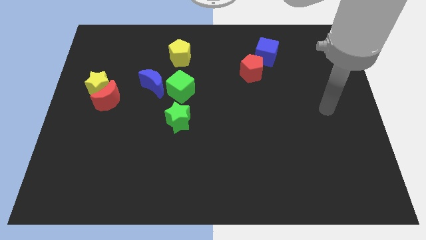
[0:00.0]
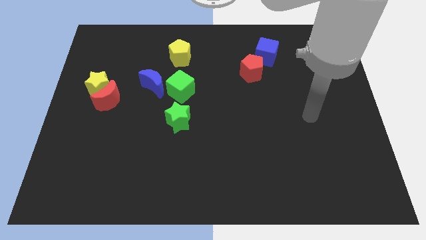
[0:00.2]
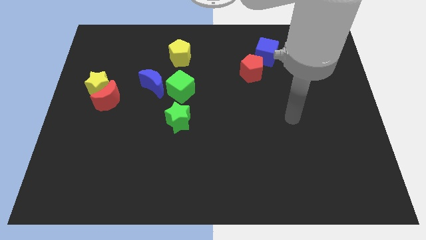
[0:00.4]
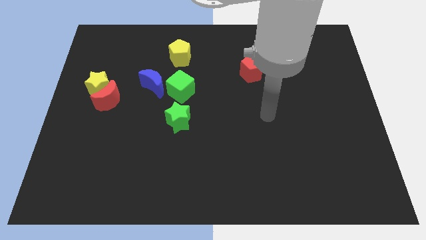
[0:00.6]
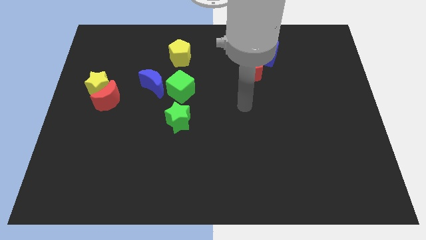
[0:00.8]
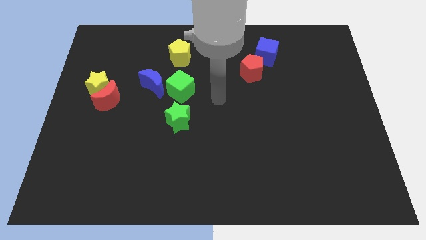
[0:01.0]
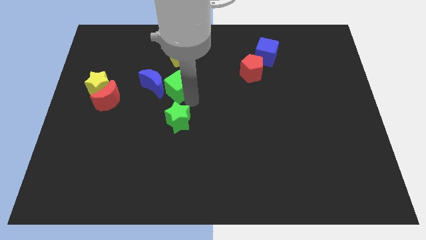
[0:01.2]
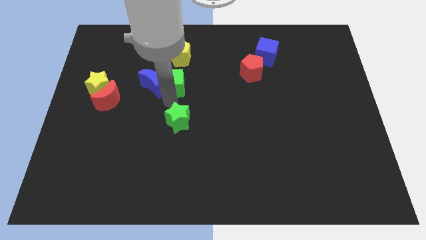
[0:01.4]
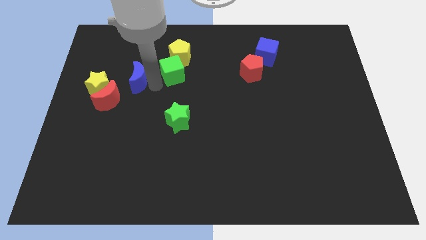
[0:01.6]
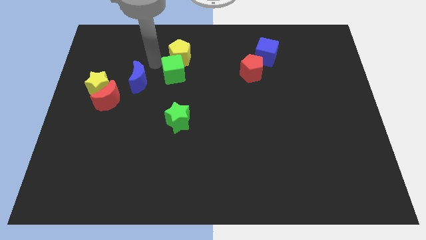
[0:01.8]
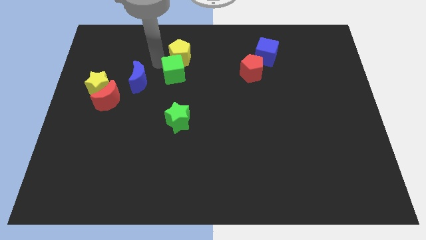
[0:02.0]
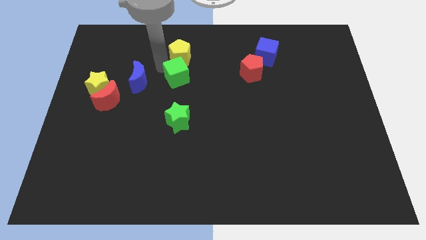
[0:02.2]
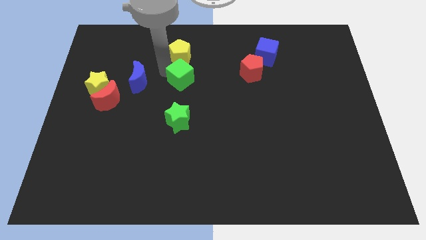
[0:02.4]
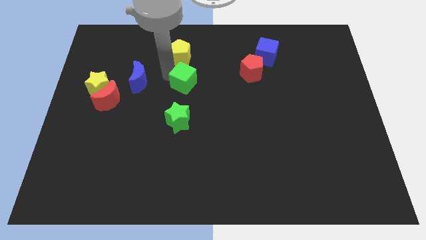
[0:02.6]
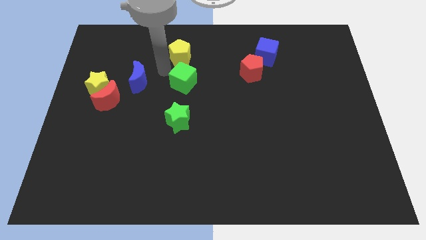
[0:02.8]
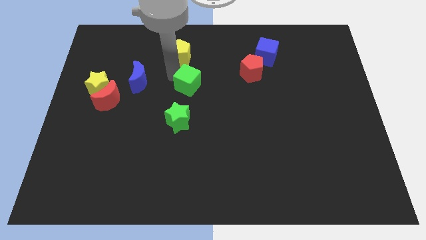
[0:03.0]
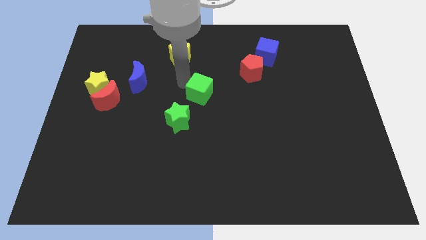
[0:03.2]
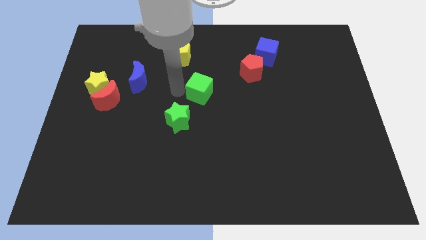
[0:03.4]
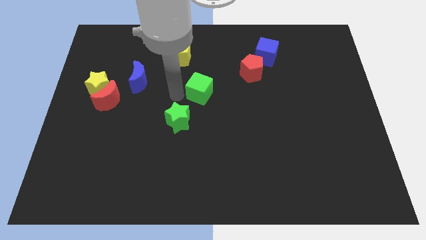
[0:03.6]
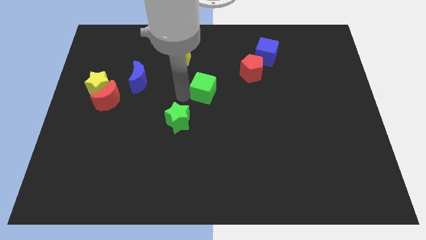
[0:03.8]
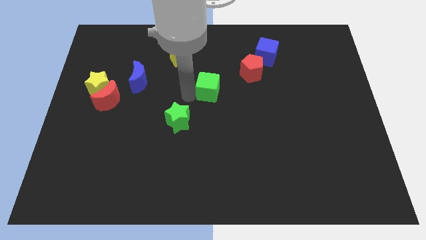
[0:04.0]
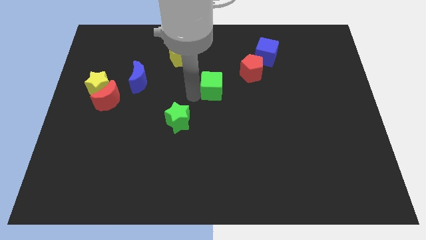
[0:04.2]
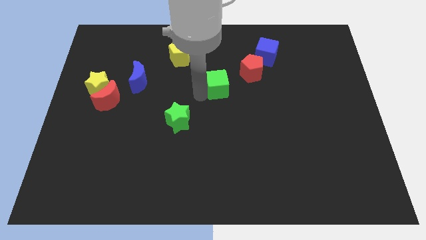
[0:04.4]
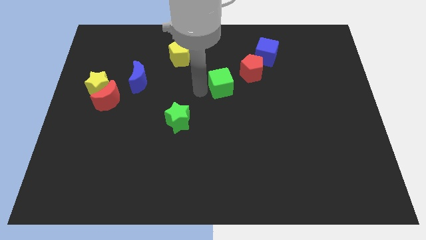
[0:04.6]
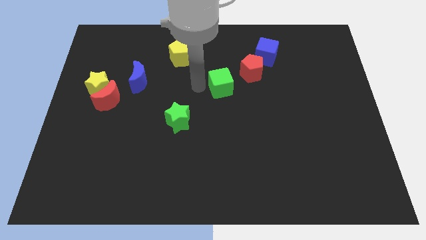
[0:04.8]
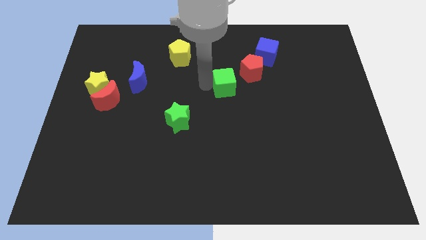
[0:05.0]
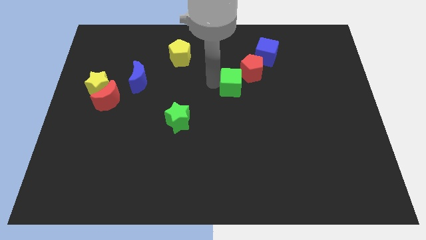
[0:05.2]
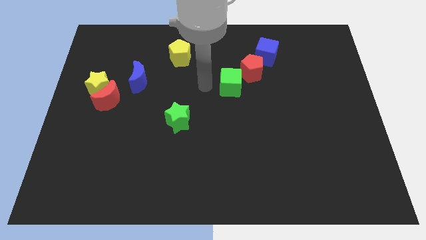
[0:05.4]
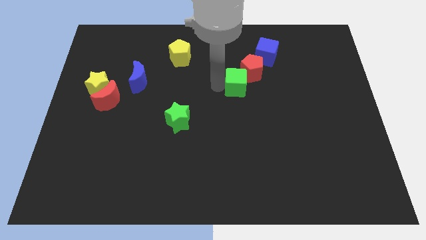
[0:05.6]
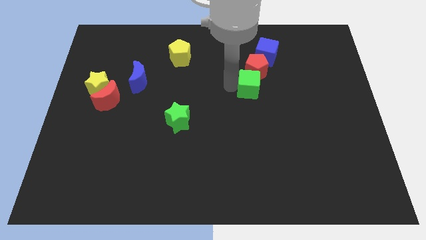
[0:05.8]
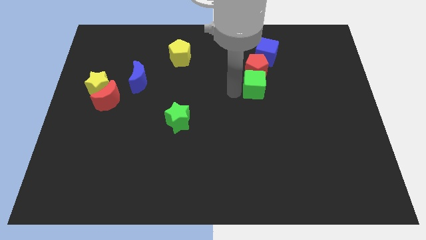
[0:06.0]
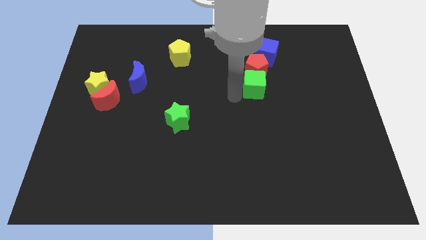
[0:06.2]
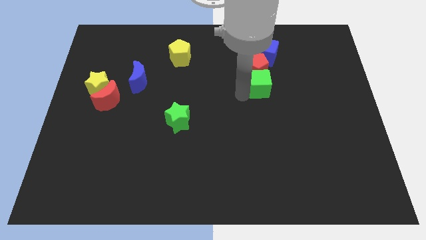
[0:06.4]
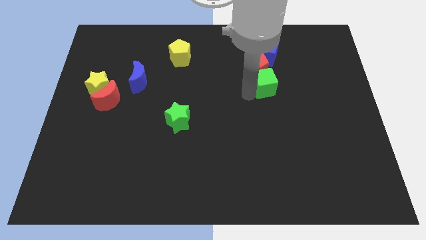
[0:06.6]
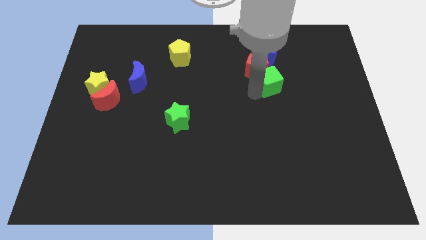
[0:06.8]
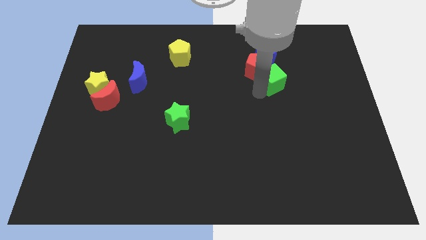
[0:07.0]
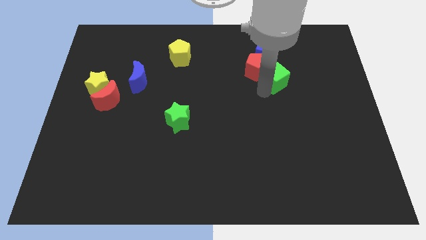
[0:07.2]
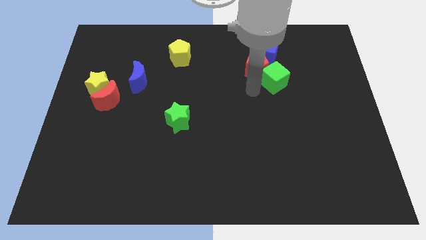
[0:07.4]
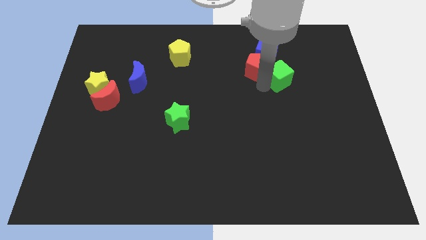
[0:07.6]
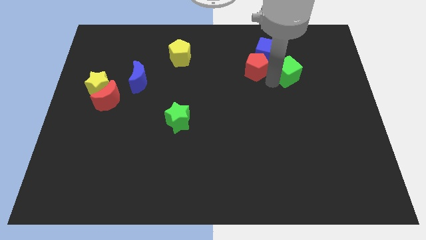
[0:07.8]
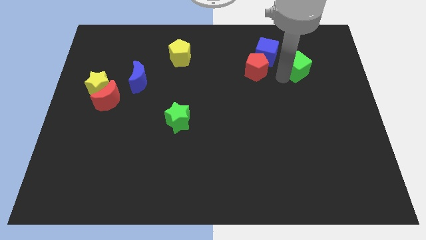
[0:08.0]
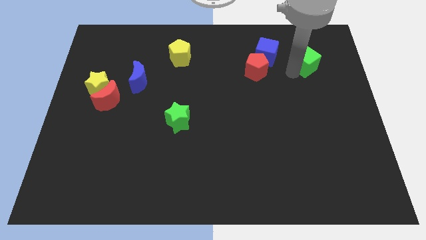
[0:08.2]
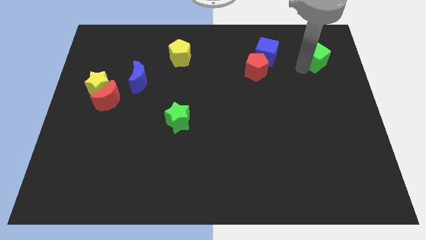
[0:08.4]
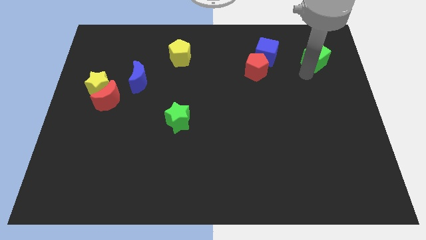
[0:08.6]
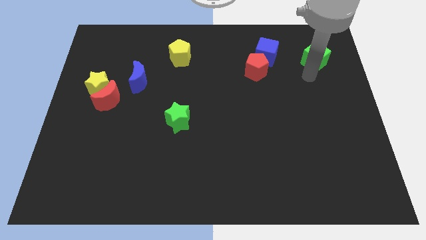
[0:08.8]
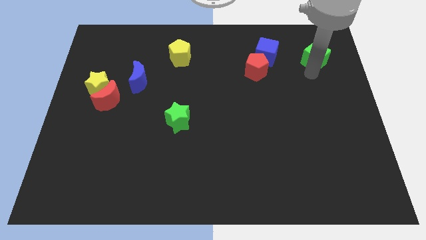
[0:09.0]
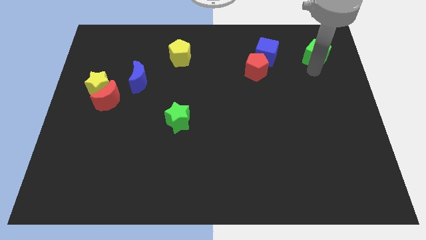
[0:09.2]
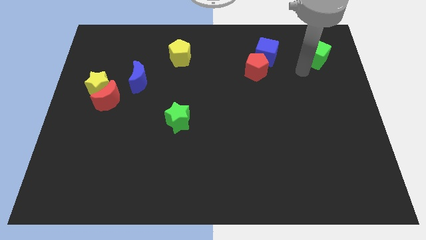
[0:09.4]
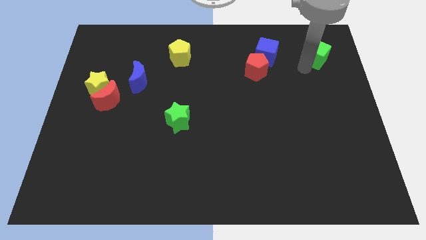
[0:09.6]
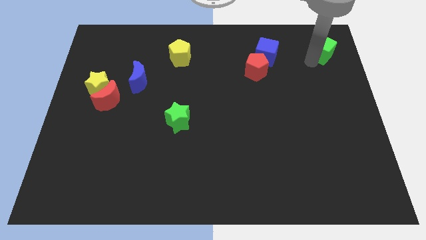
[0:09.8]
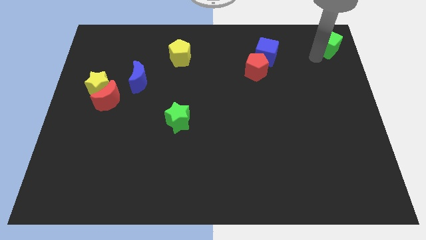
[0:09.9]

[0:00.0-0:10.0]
slide the green cube to the top right of the board
